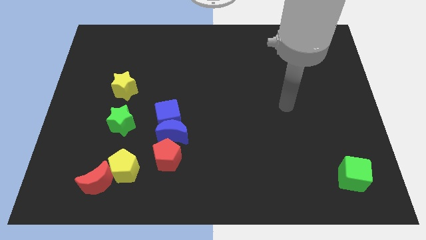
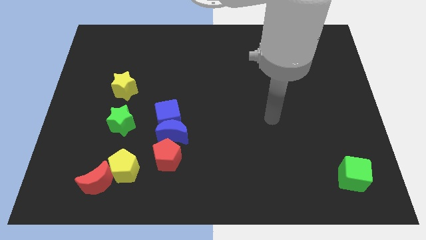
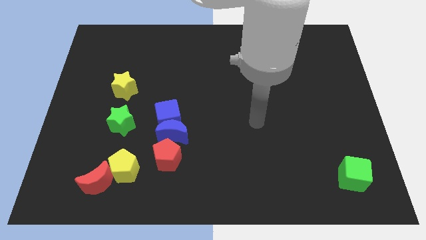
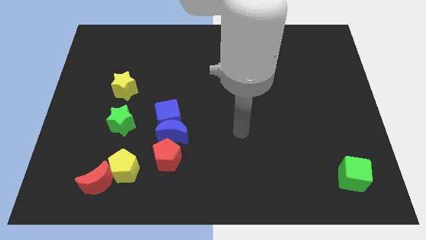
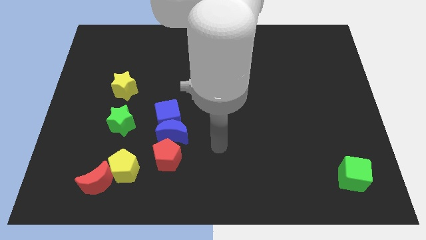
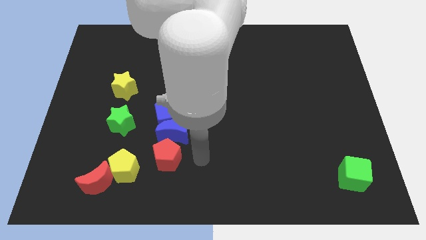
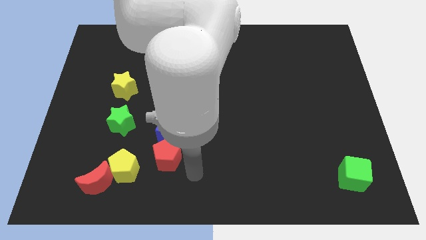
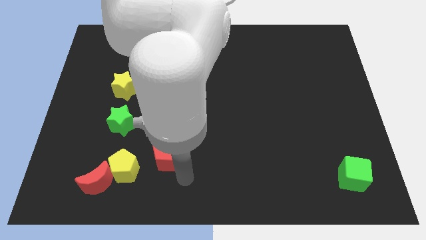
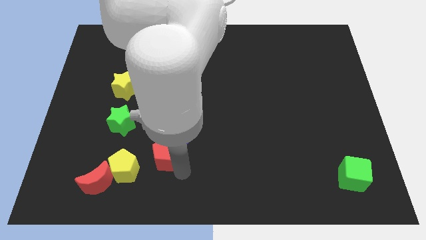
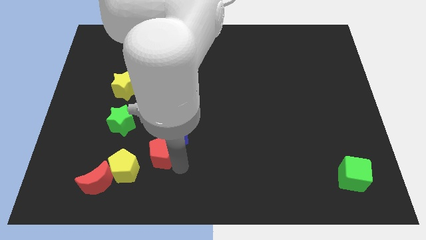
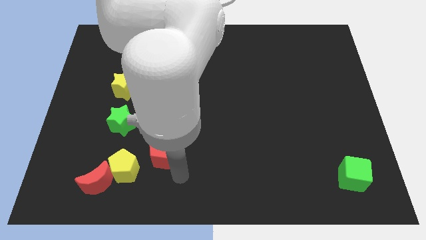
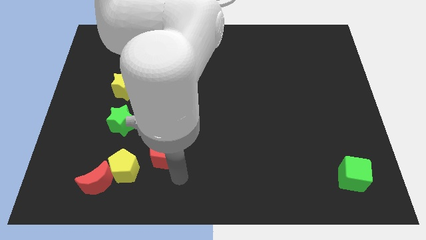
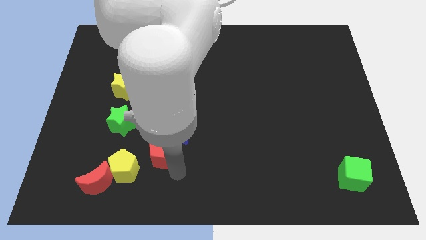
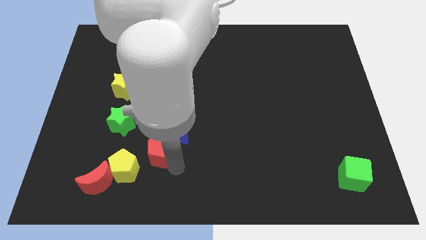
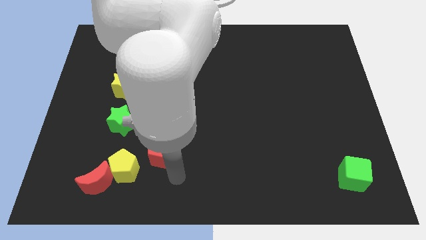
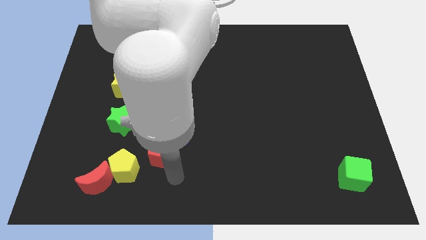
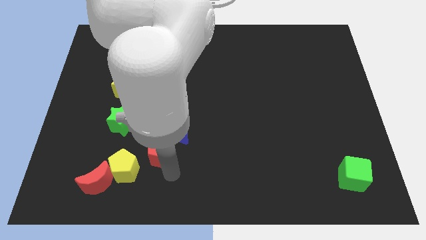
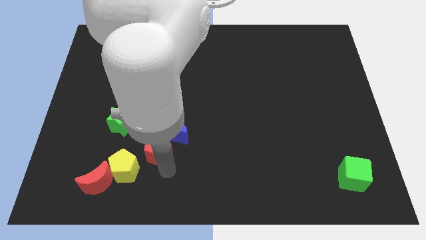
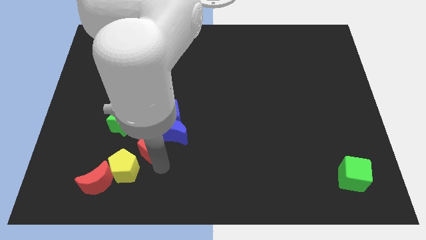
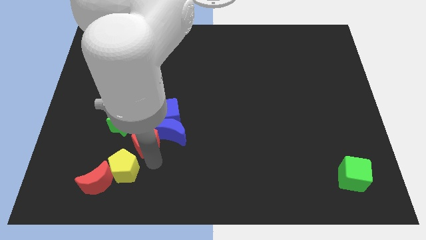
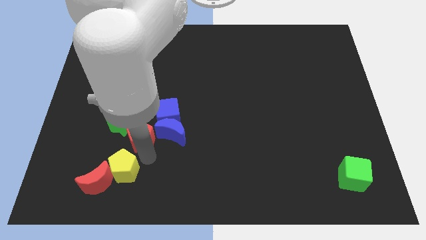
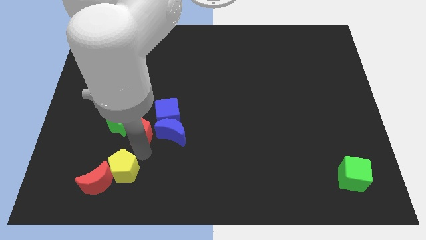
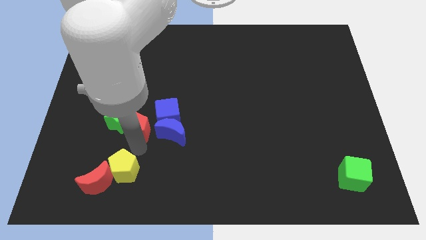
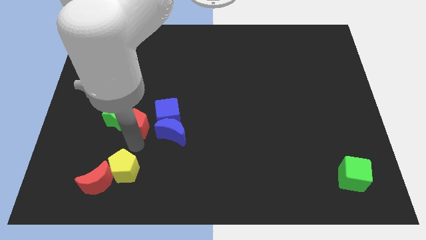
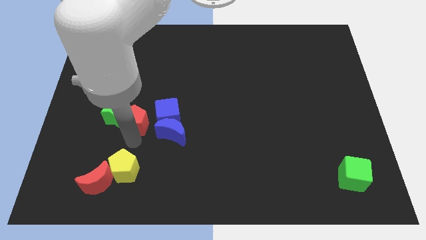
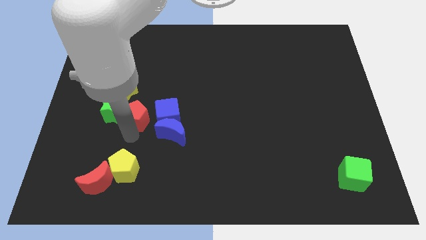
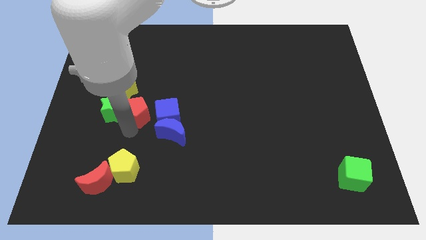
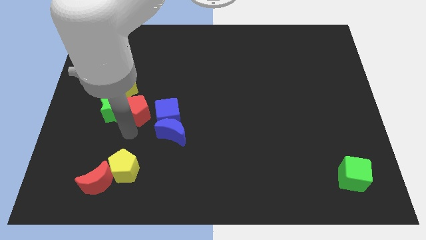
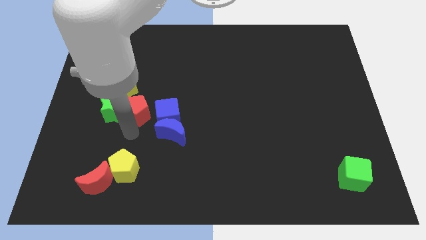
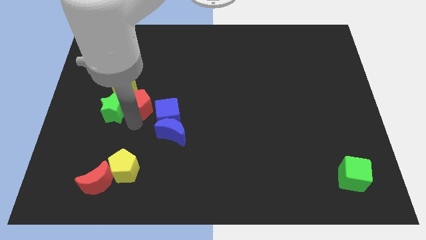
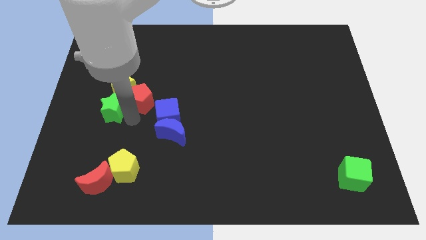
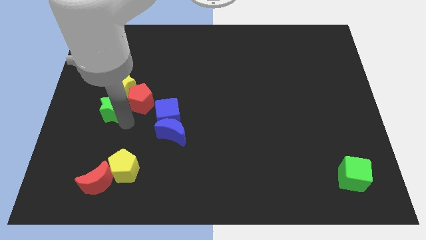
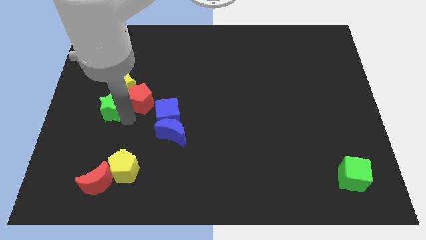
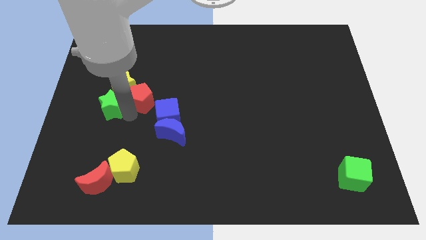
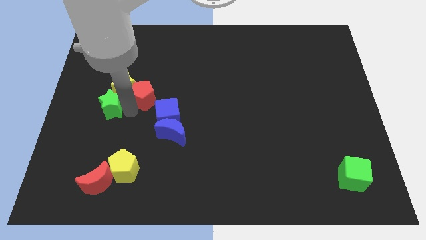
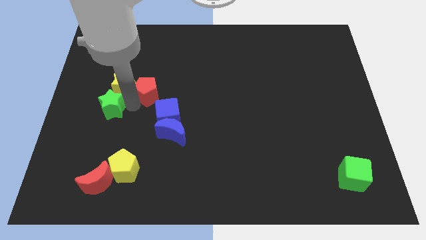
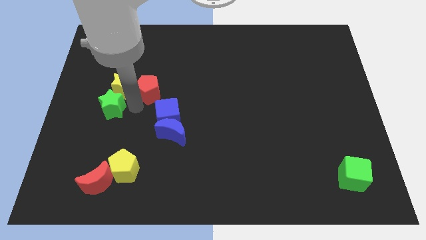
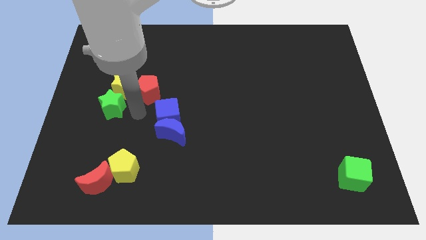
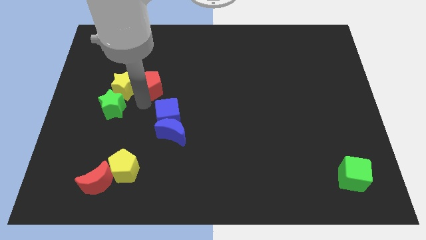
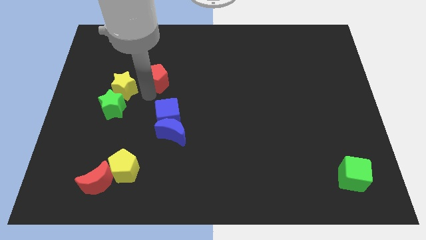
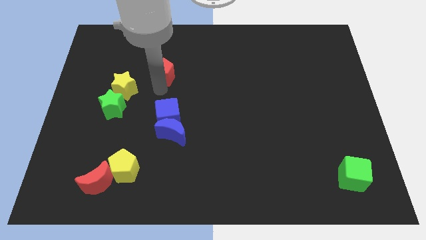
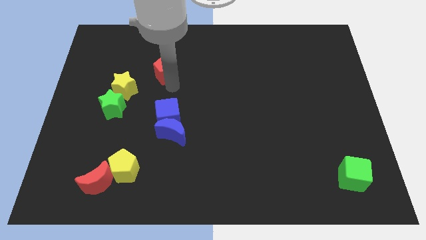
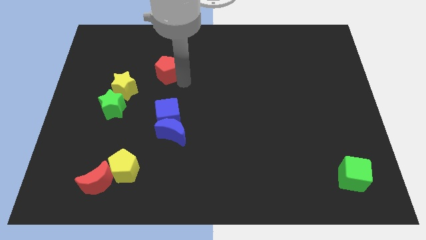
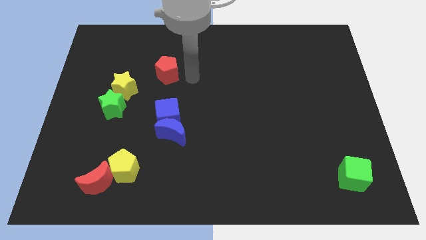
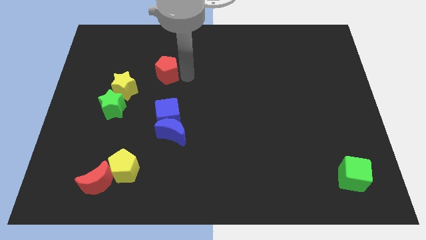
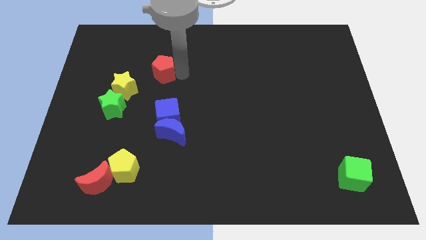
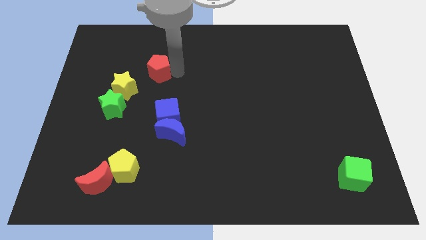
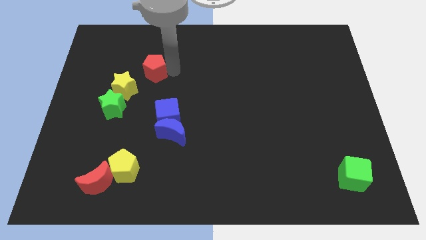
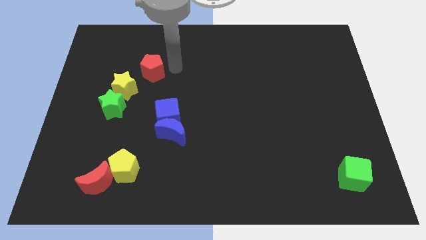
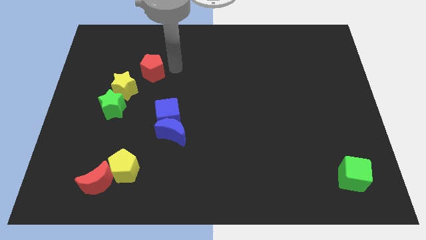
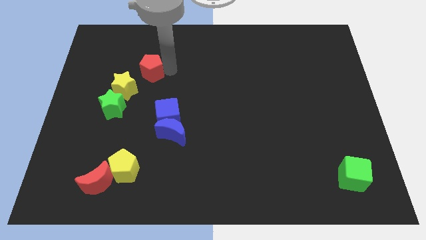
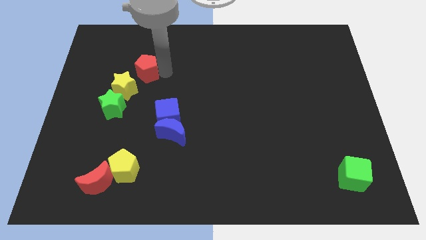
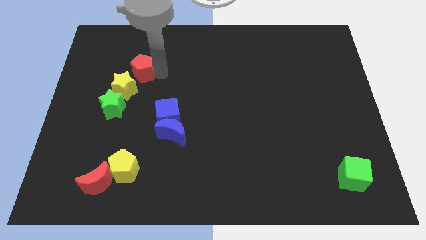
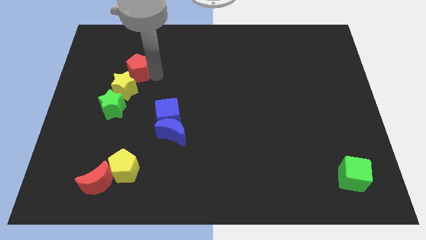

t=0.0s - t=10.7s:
push the red pentagon to the top side of the green star

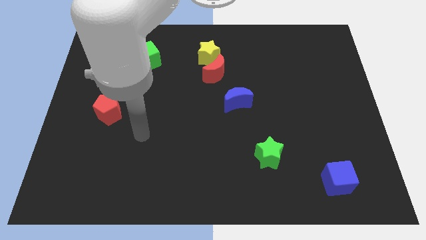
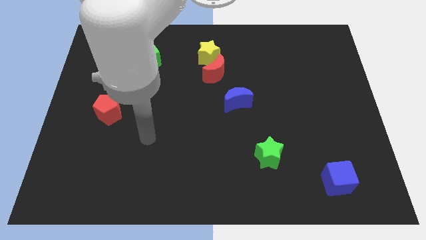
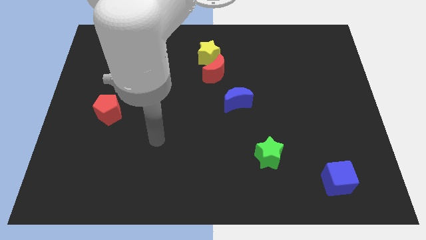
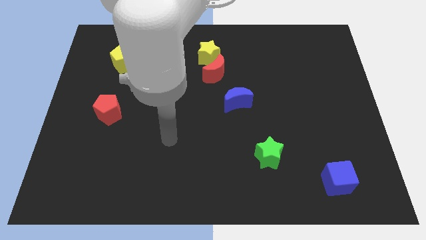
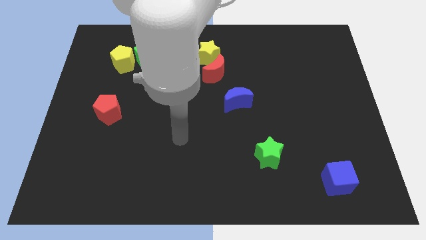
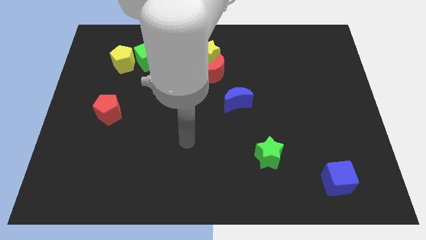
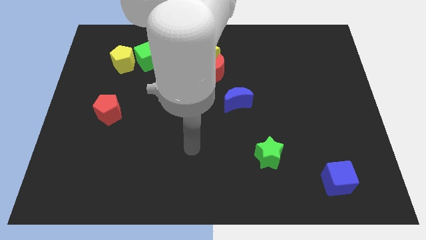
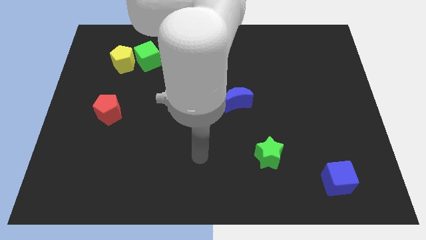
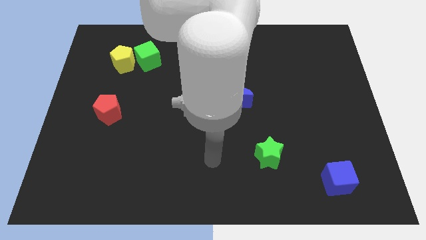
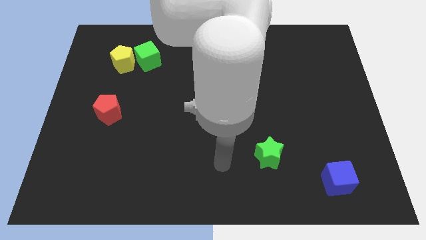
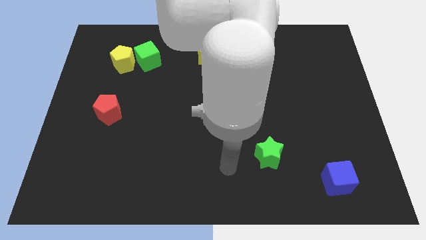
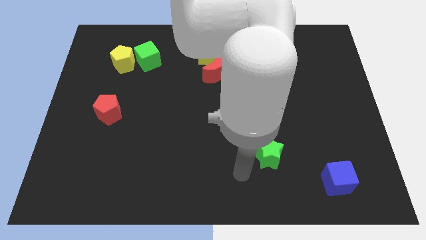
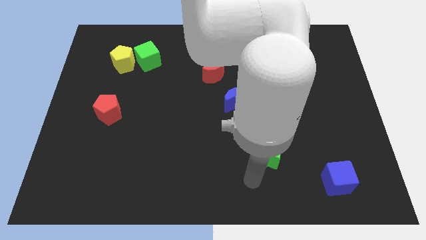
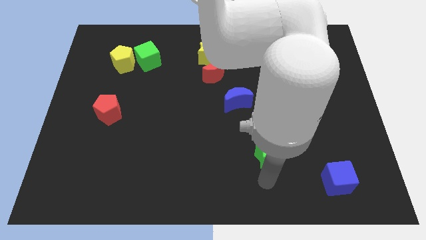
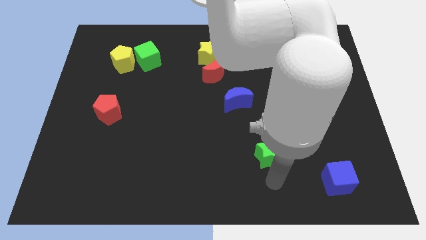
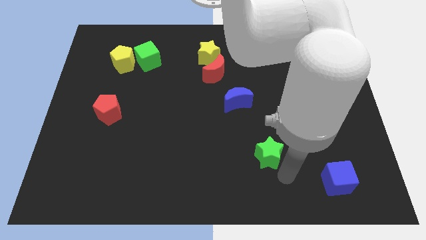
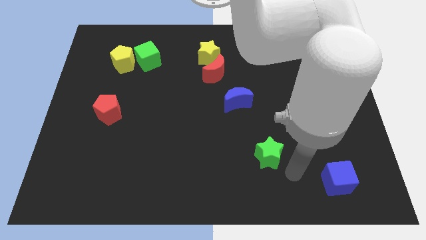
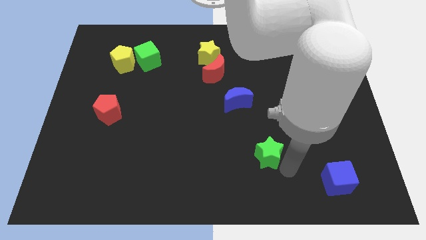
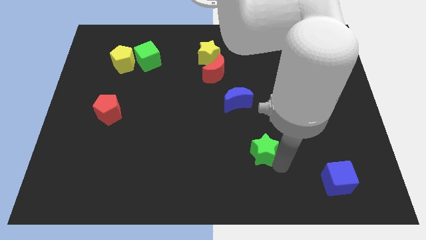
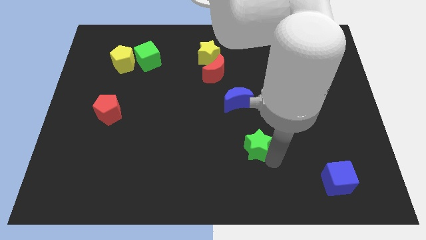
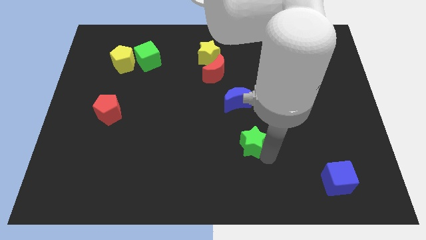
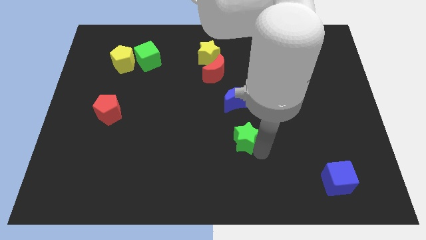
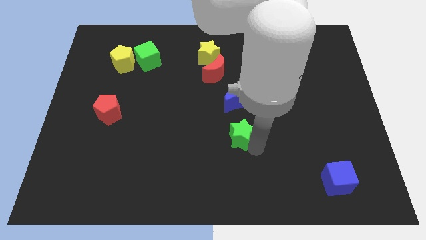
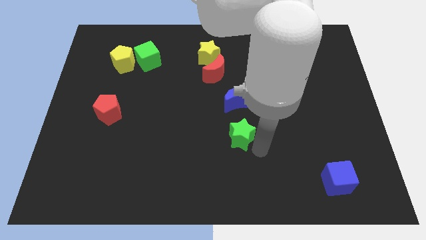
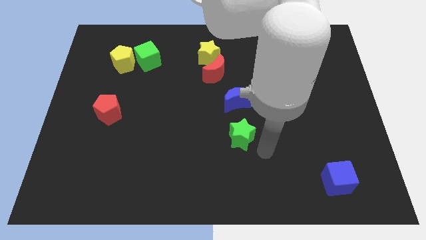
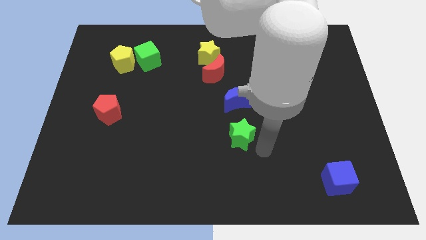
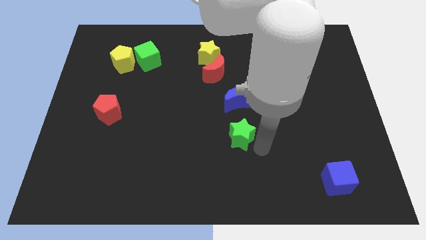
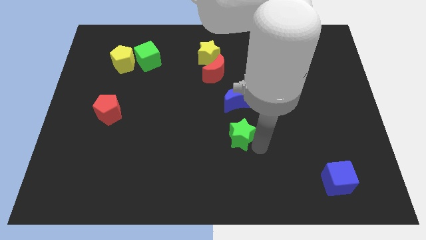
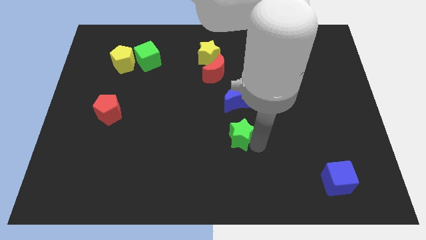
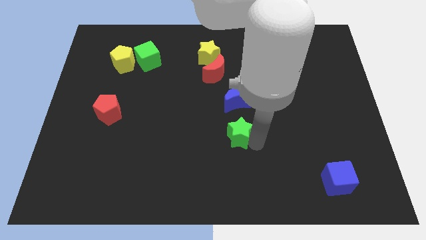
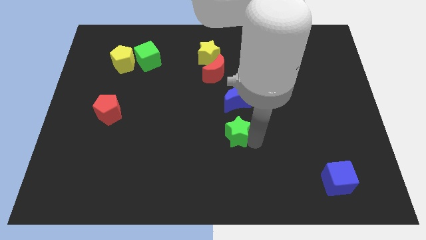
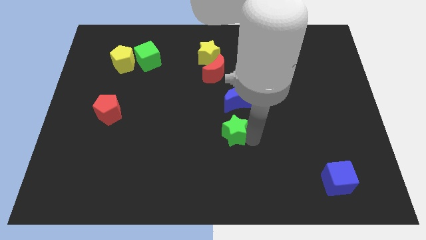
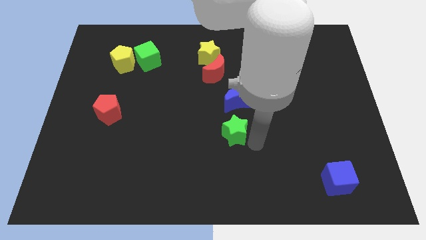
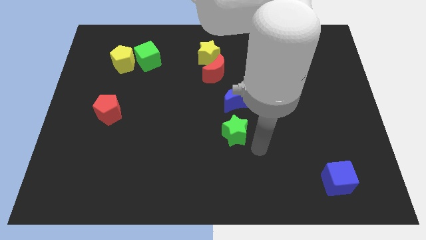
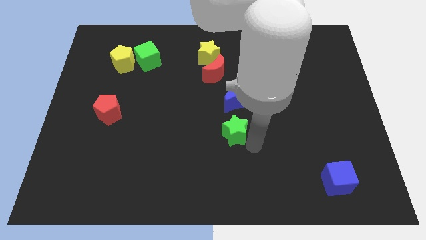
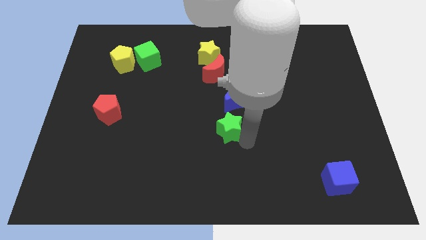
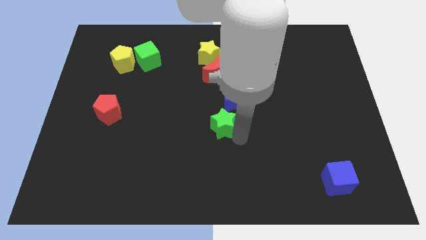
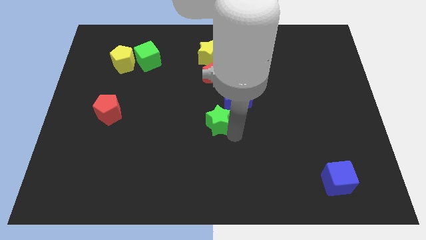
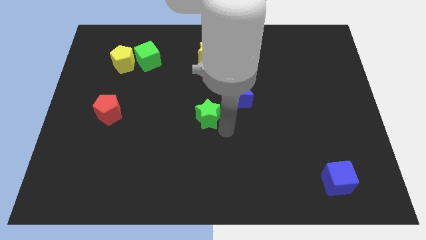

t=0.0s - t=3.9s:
push the green star left of the blue moon
